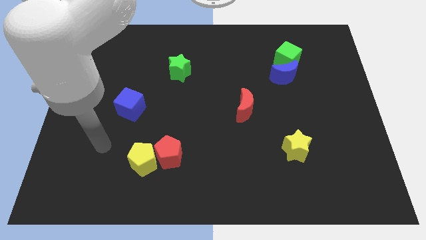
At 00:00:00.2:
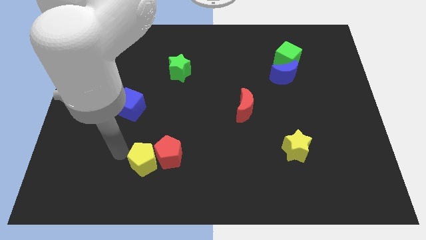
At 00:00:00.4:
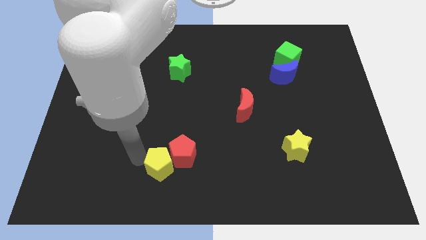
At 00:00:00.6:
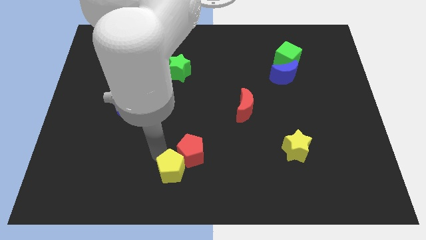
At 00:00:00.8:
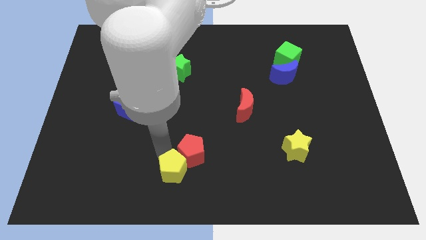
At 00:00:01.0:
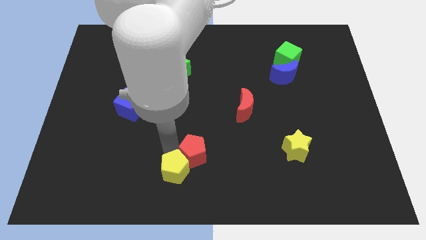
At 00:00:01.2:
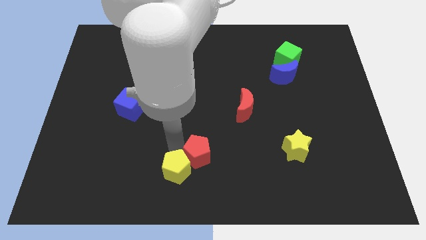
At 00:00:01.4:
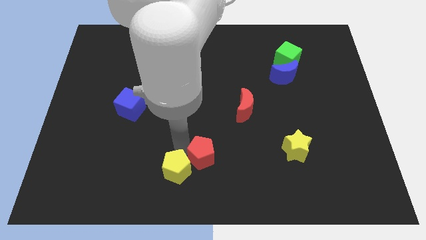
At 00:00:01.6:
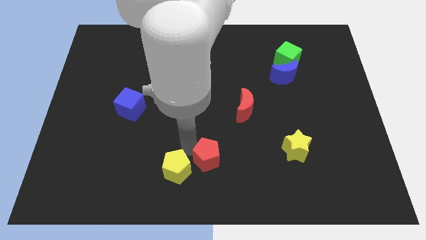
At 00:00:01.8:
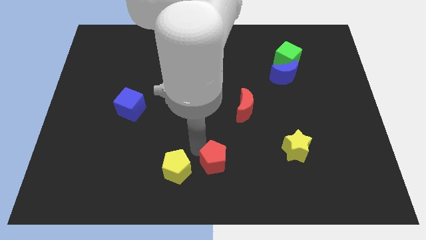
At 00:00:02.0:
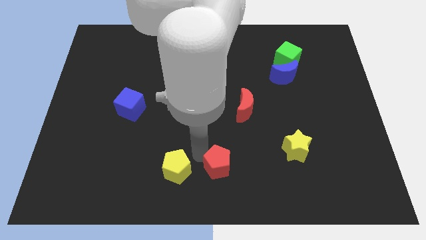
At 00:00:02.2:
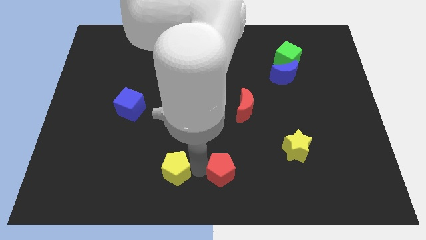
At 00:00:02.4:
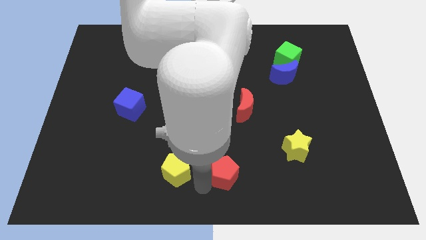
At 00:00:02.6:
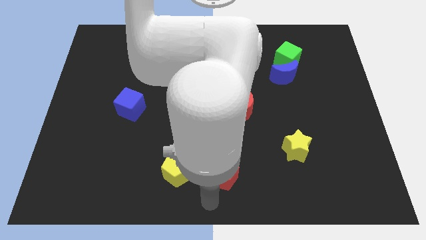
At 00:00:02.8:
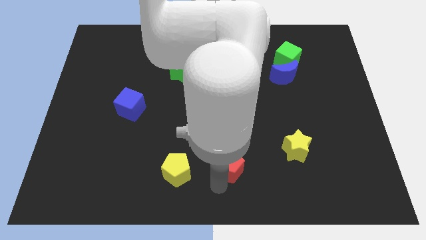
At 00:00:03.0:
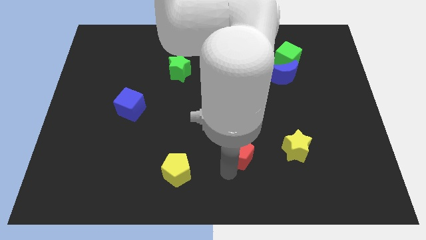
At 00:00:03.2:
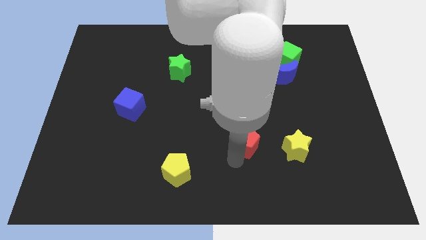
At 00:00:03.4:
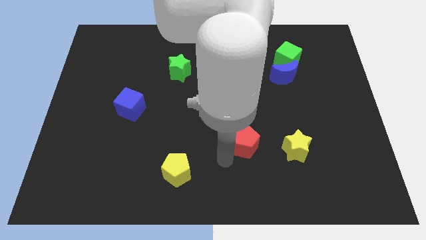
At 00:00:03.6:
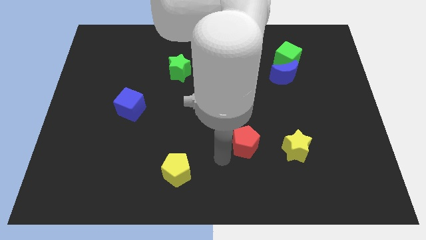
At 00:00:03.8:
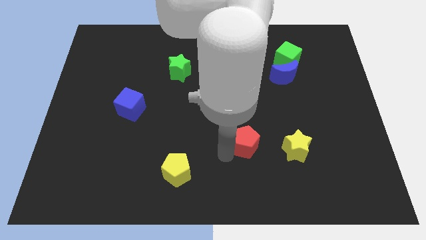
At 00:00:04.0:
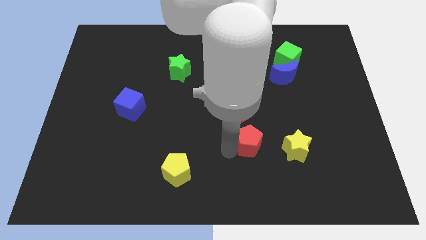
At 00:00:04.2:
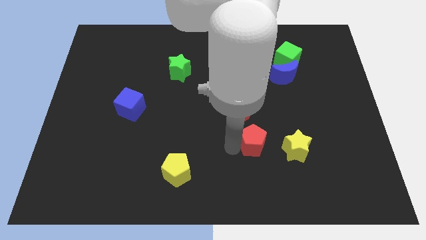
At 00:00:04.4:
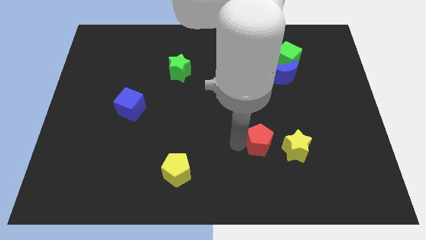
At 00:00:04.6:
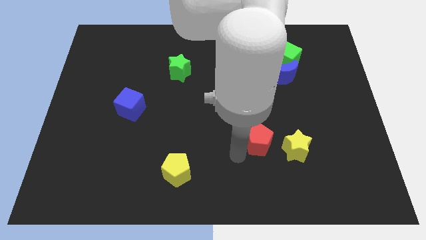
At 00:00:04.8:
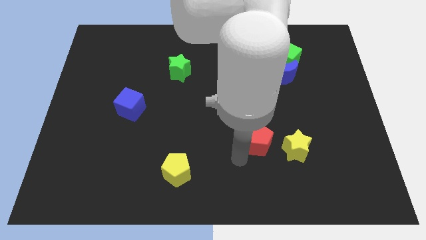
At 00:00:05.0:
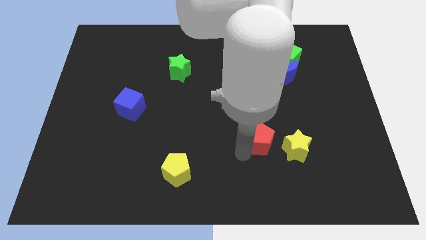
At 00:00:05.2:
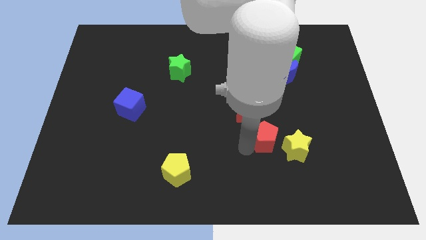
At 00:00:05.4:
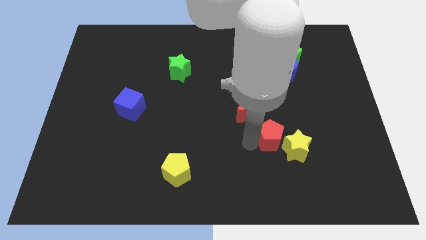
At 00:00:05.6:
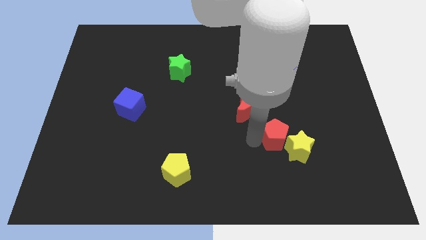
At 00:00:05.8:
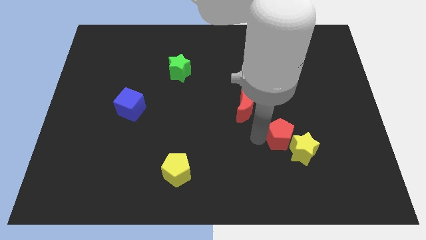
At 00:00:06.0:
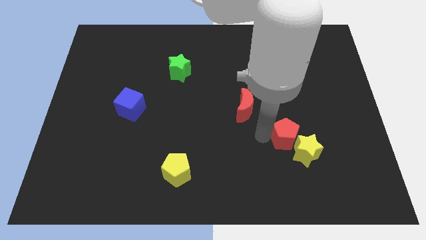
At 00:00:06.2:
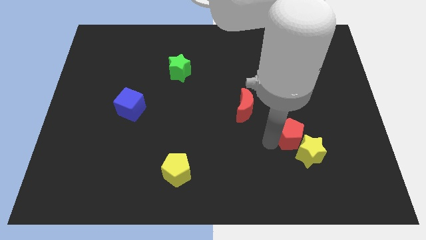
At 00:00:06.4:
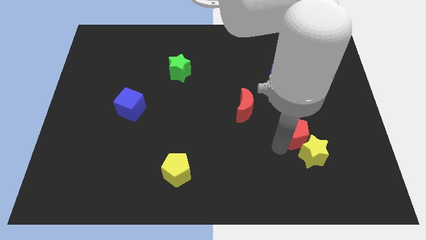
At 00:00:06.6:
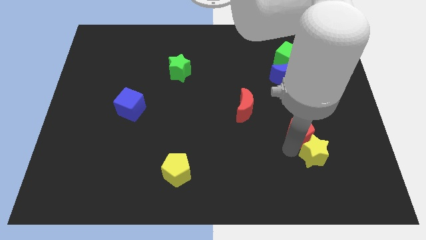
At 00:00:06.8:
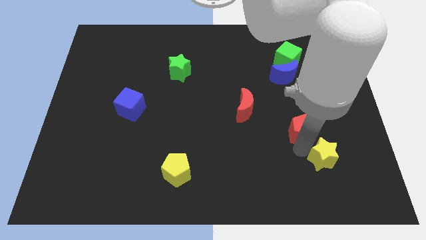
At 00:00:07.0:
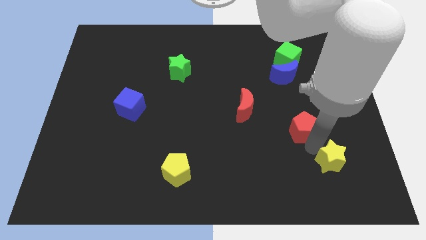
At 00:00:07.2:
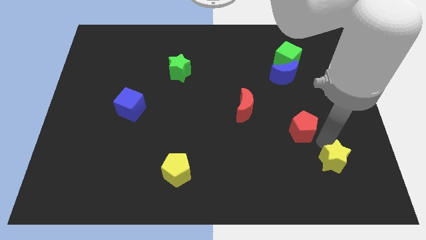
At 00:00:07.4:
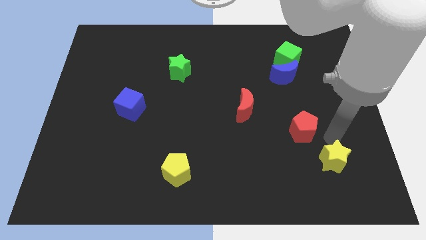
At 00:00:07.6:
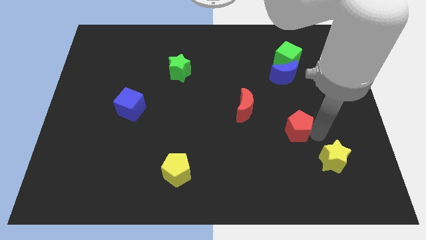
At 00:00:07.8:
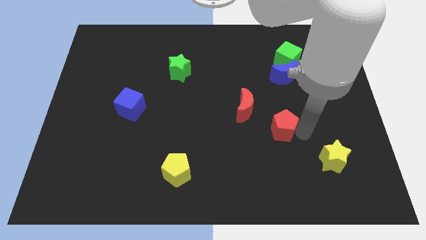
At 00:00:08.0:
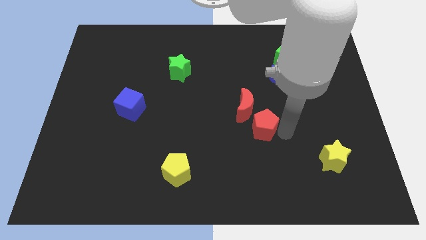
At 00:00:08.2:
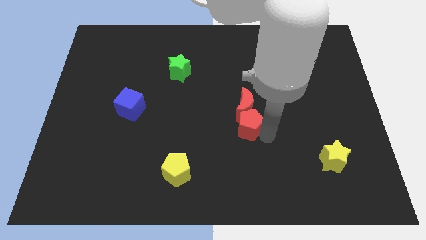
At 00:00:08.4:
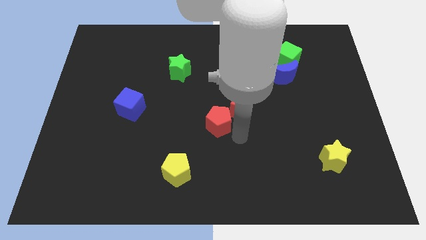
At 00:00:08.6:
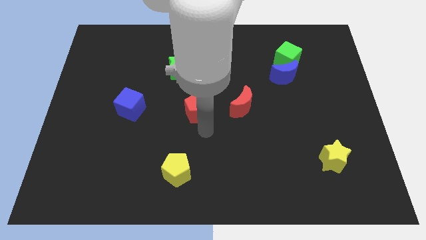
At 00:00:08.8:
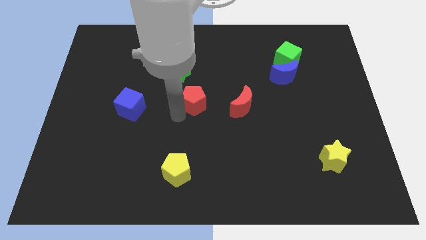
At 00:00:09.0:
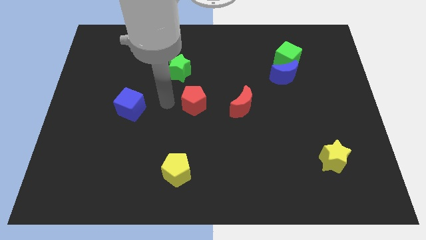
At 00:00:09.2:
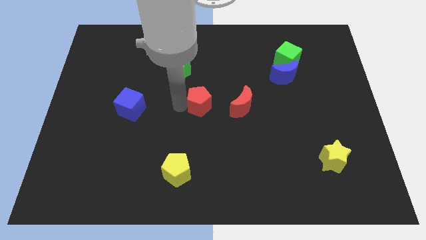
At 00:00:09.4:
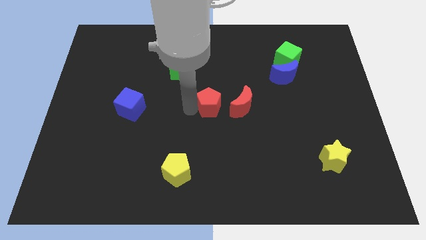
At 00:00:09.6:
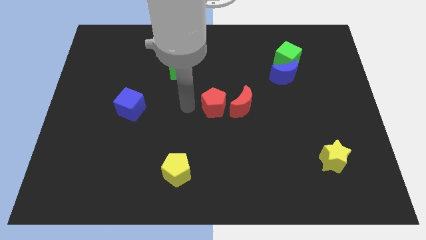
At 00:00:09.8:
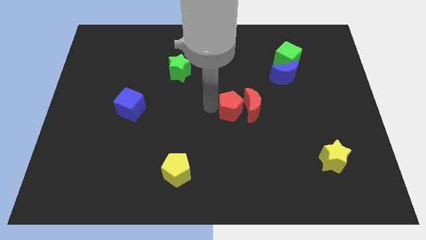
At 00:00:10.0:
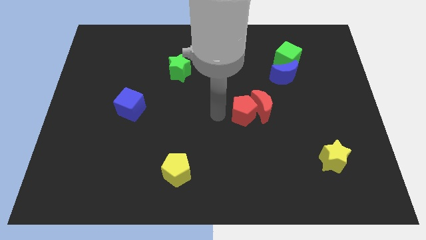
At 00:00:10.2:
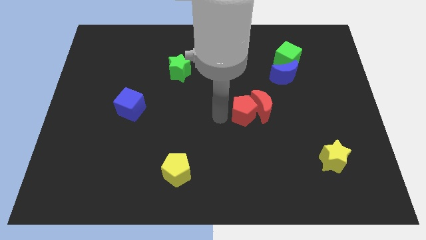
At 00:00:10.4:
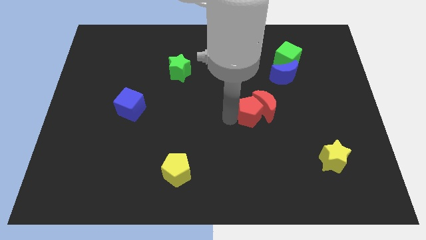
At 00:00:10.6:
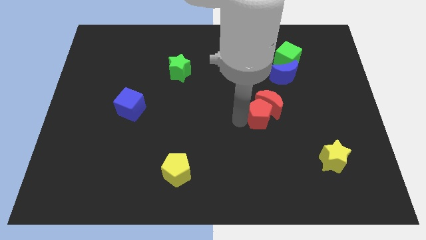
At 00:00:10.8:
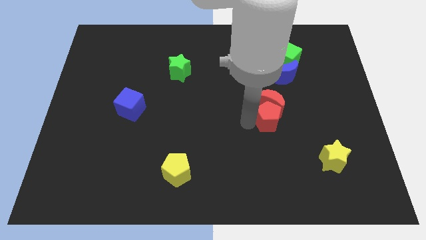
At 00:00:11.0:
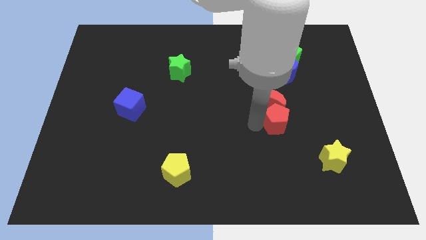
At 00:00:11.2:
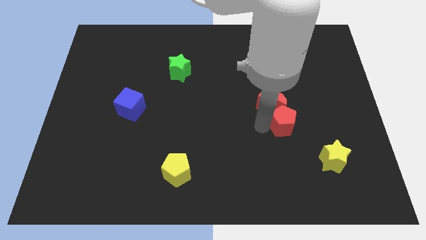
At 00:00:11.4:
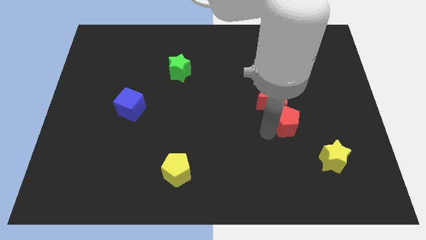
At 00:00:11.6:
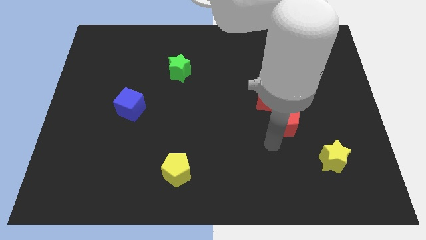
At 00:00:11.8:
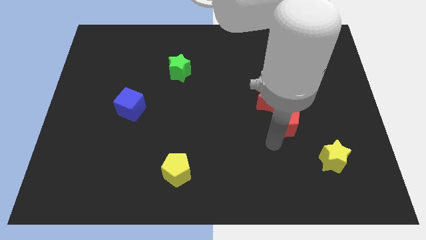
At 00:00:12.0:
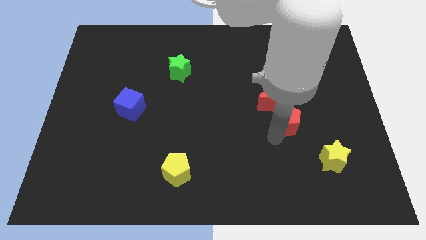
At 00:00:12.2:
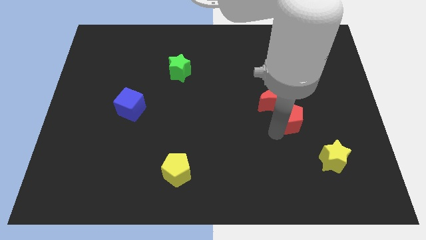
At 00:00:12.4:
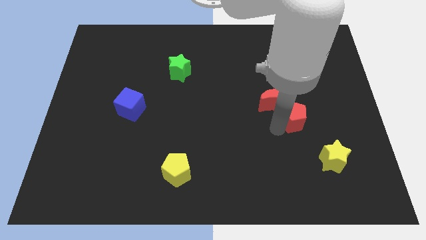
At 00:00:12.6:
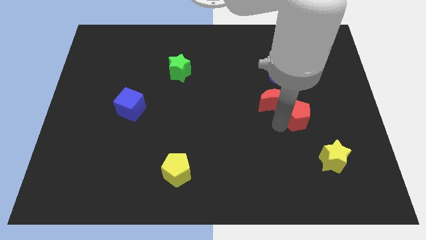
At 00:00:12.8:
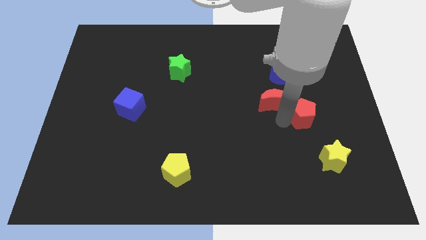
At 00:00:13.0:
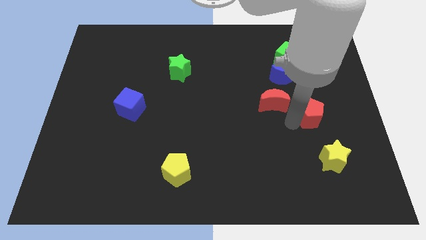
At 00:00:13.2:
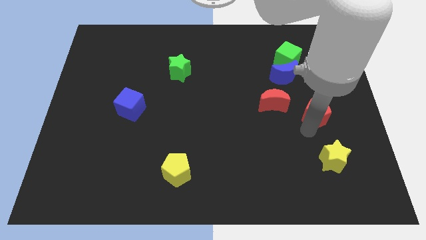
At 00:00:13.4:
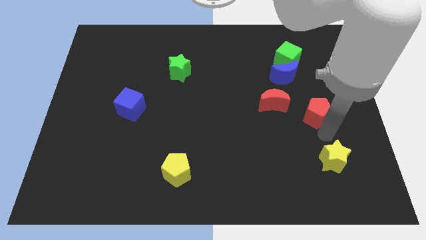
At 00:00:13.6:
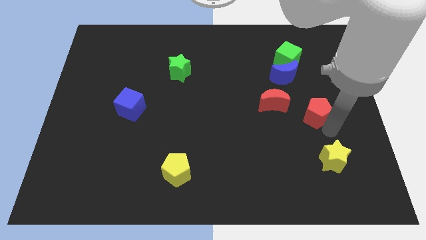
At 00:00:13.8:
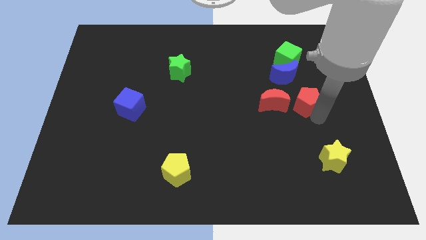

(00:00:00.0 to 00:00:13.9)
put the red pentagon below the green cube
